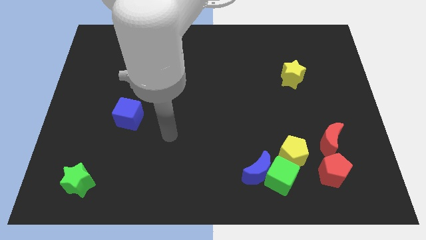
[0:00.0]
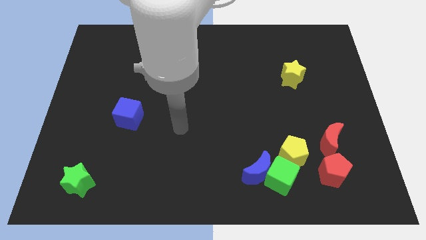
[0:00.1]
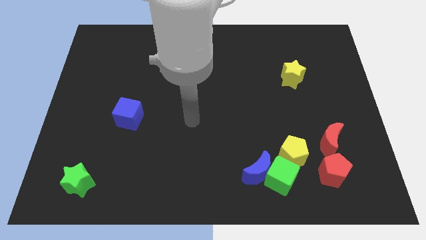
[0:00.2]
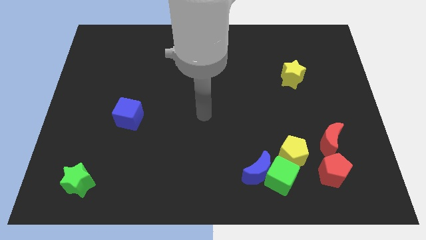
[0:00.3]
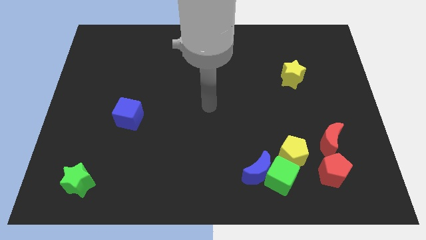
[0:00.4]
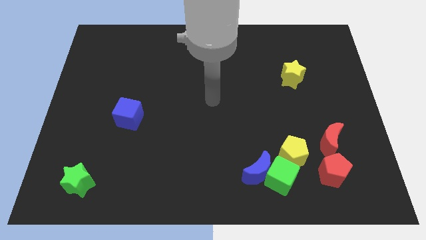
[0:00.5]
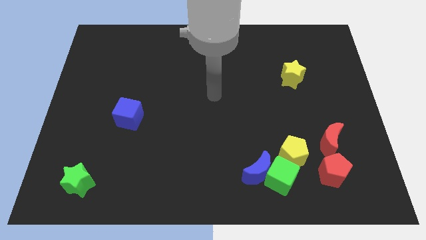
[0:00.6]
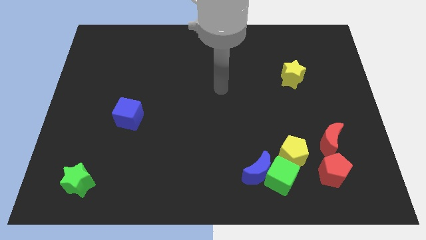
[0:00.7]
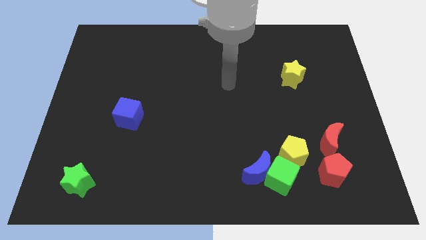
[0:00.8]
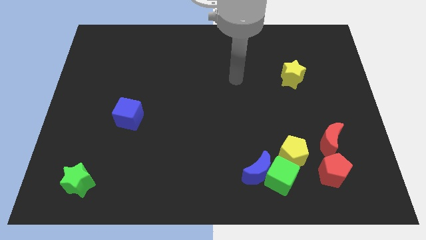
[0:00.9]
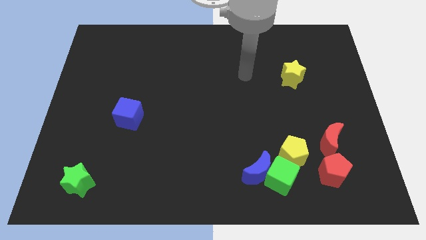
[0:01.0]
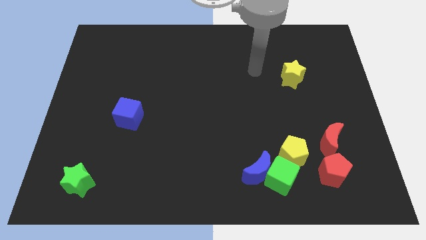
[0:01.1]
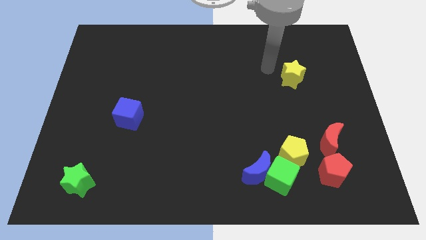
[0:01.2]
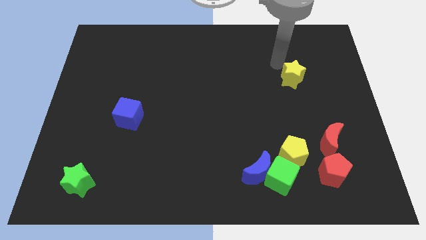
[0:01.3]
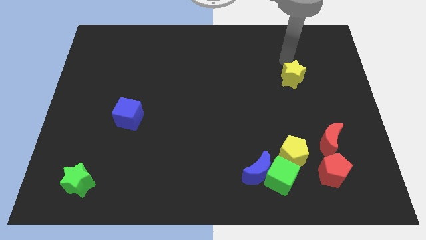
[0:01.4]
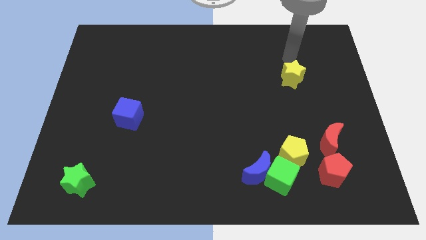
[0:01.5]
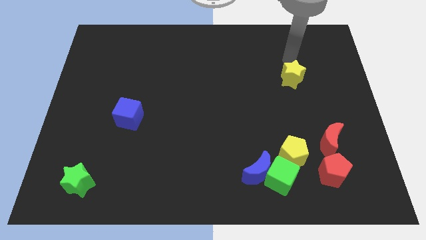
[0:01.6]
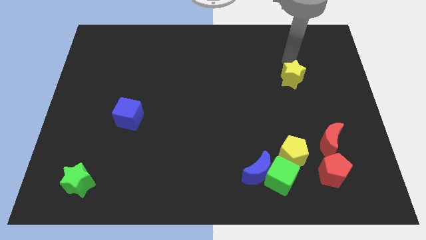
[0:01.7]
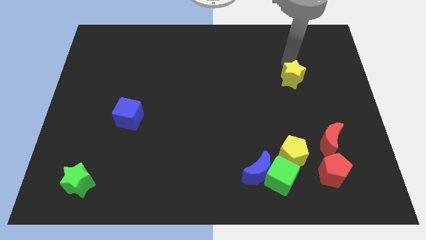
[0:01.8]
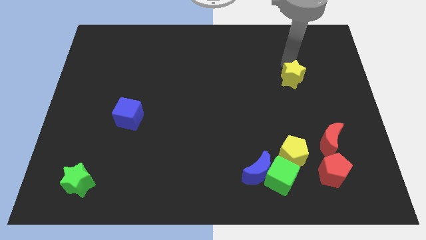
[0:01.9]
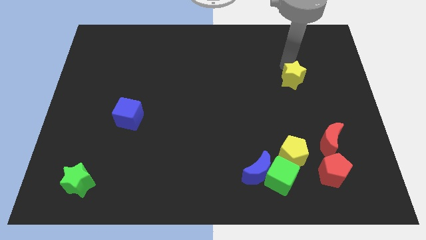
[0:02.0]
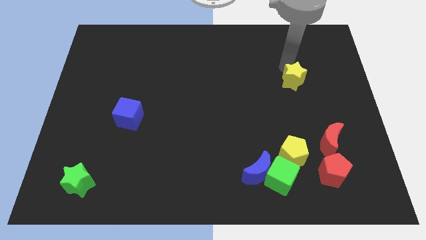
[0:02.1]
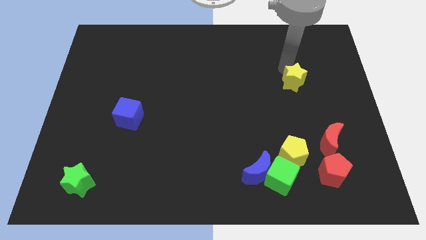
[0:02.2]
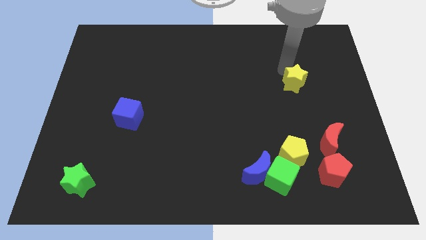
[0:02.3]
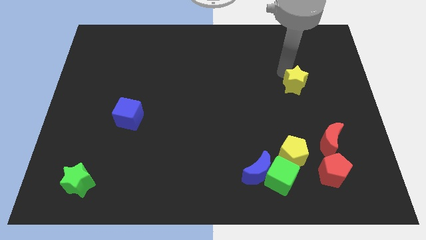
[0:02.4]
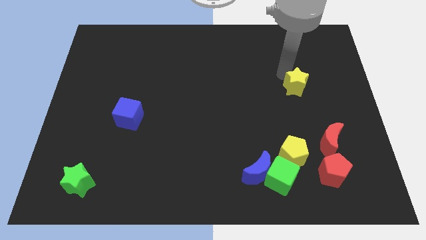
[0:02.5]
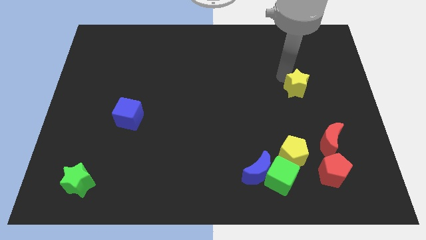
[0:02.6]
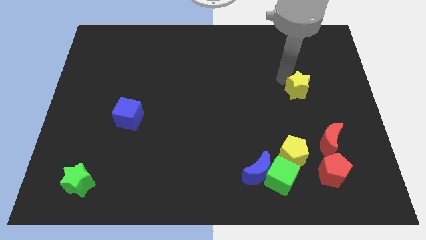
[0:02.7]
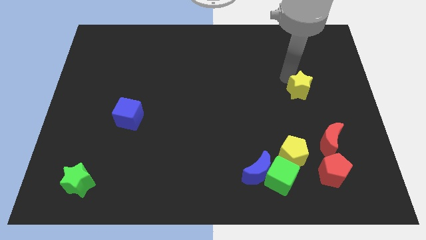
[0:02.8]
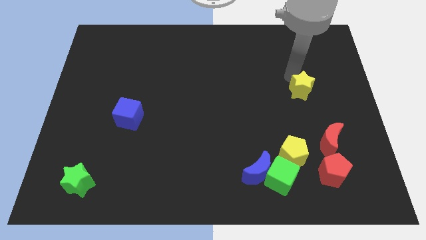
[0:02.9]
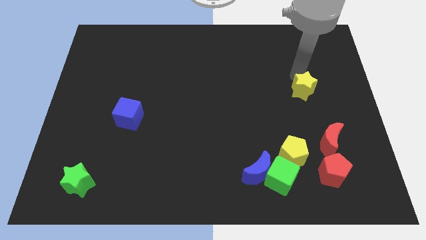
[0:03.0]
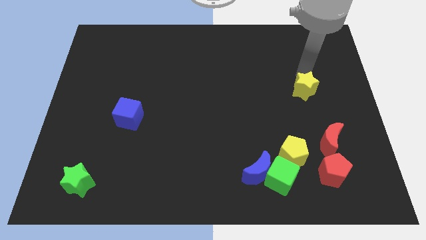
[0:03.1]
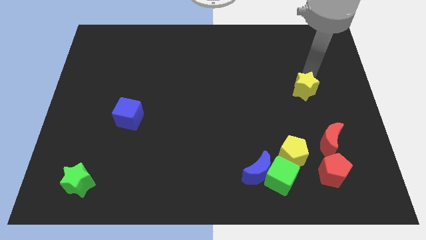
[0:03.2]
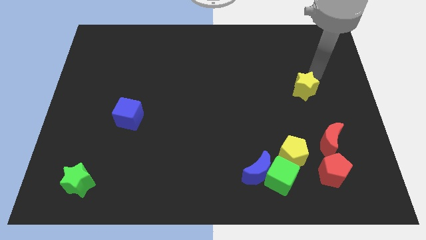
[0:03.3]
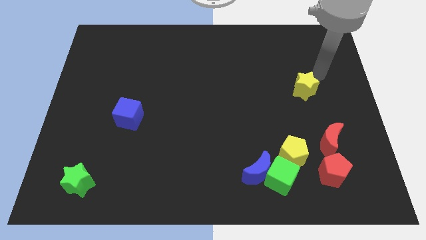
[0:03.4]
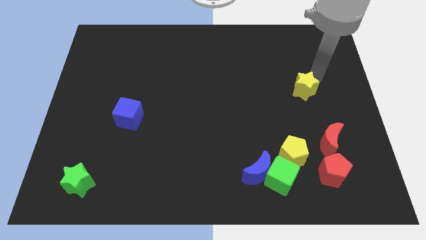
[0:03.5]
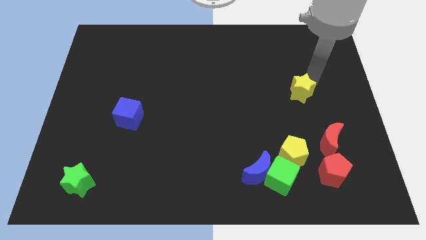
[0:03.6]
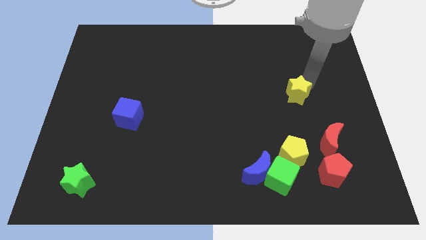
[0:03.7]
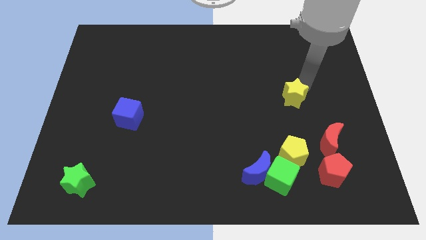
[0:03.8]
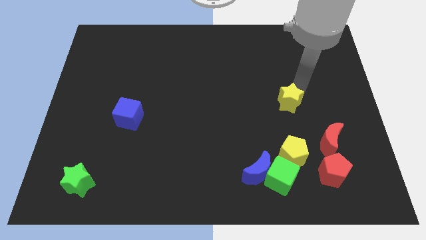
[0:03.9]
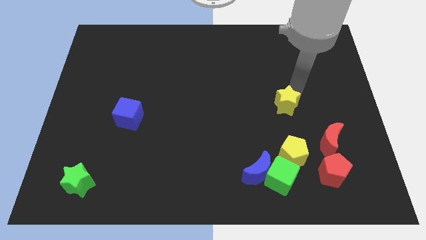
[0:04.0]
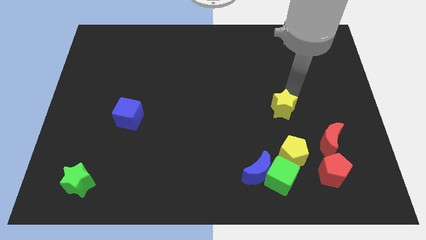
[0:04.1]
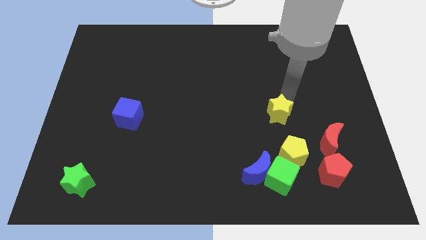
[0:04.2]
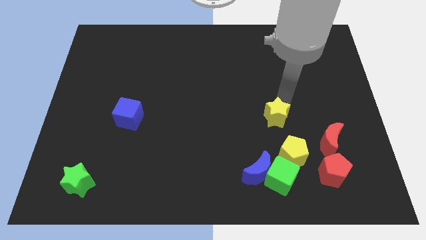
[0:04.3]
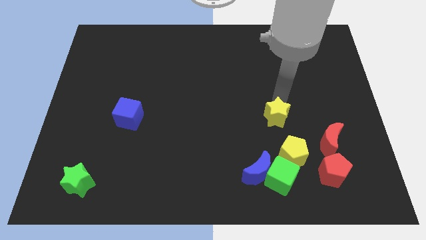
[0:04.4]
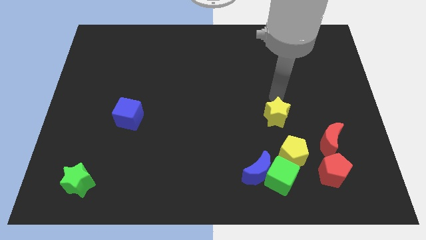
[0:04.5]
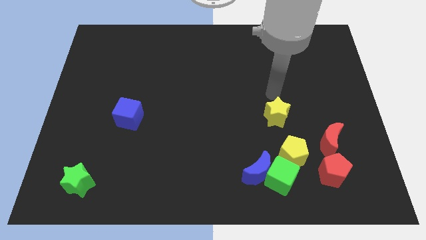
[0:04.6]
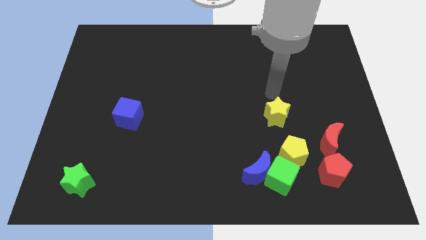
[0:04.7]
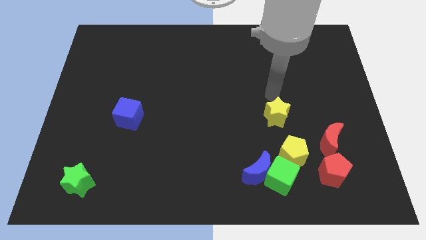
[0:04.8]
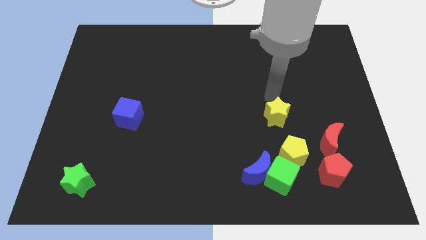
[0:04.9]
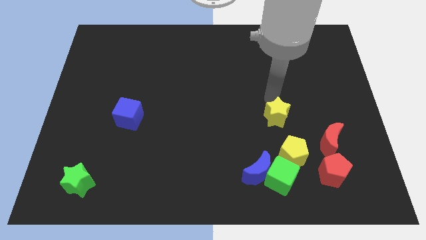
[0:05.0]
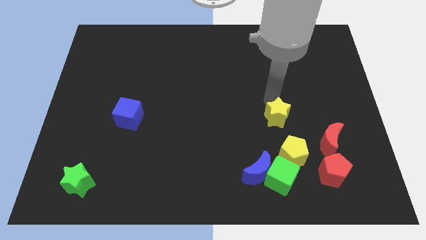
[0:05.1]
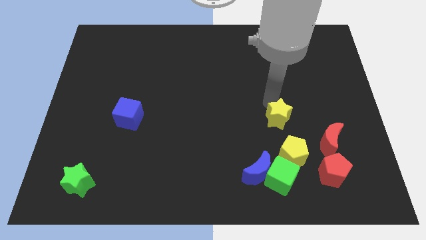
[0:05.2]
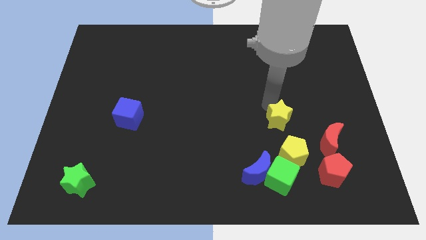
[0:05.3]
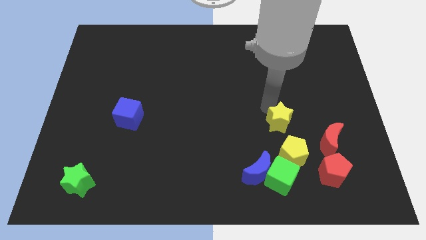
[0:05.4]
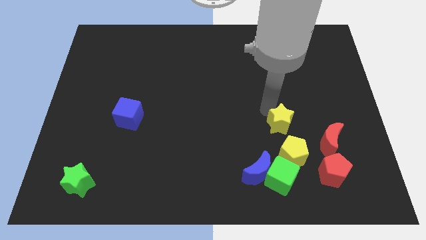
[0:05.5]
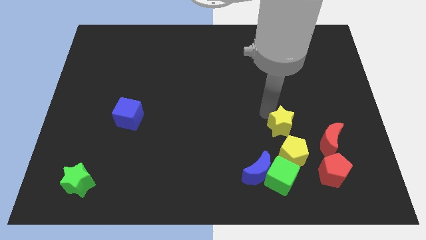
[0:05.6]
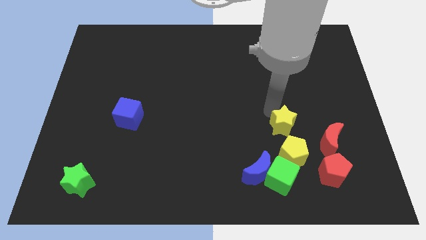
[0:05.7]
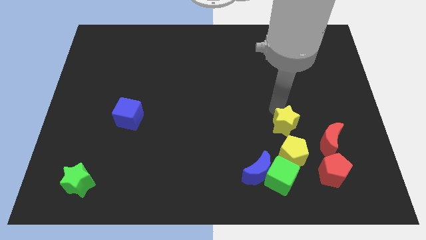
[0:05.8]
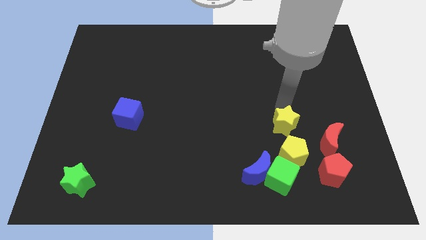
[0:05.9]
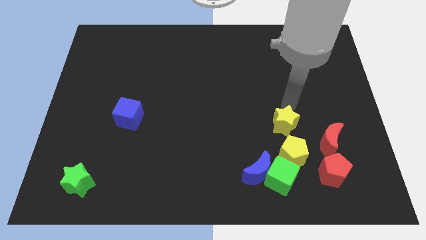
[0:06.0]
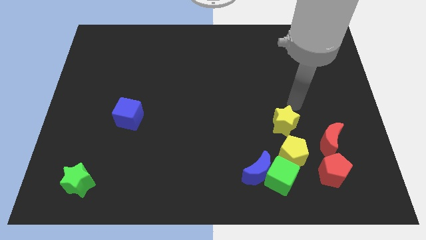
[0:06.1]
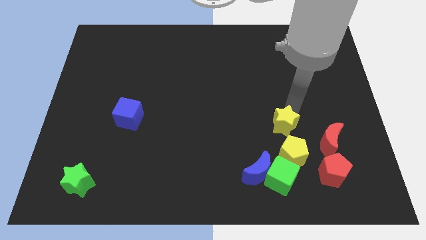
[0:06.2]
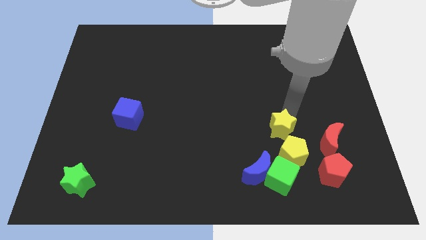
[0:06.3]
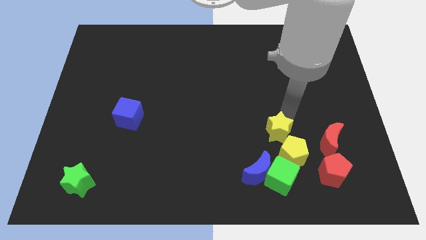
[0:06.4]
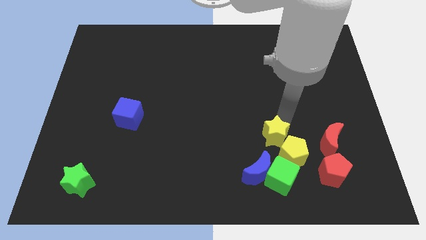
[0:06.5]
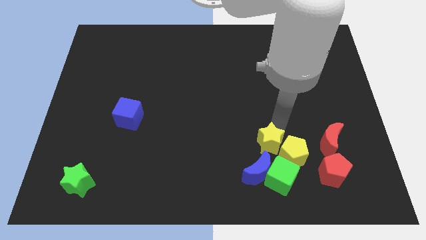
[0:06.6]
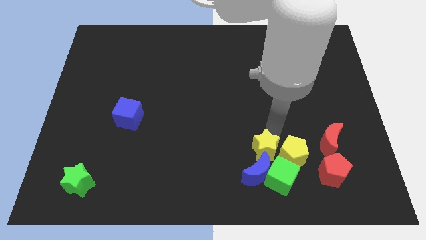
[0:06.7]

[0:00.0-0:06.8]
put the yellow star towards the blue moon
